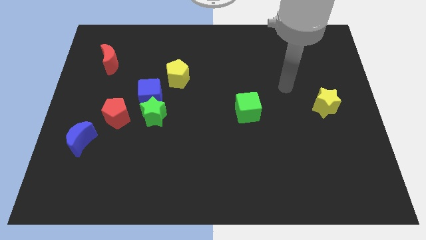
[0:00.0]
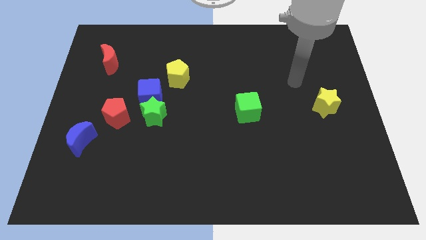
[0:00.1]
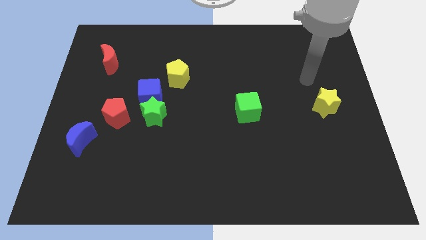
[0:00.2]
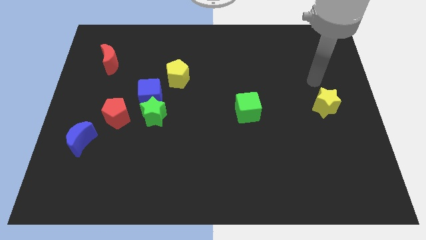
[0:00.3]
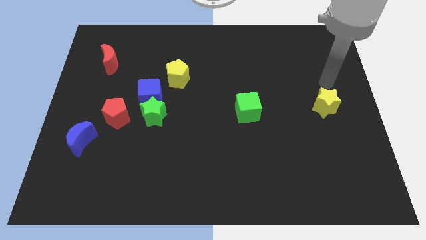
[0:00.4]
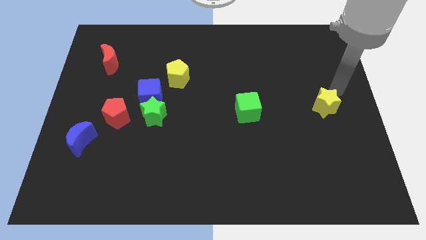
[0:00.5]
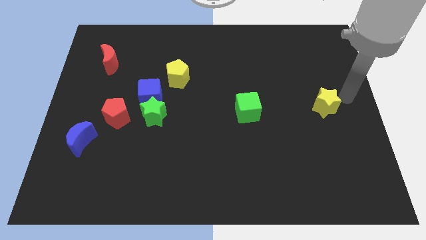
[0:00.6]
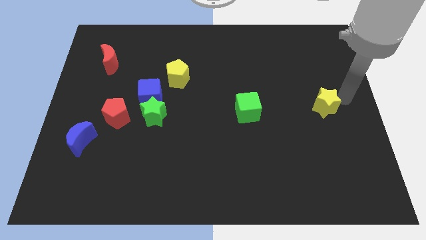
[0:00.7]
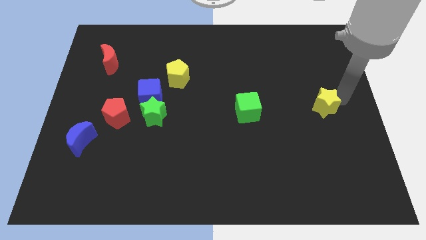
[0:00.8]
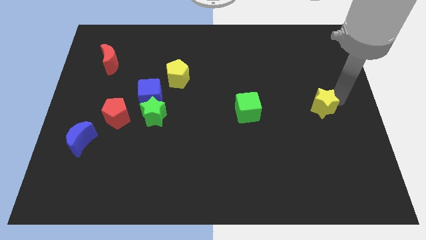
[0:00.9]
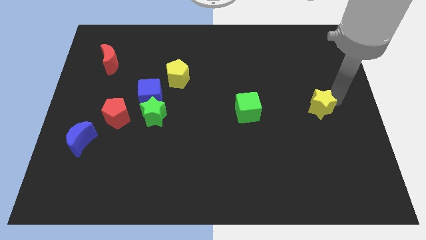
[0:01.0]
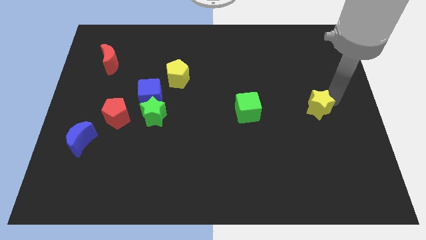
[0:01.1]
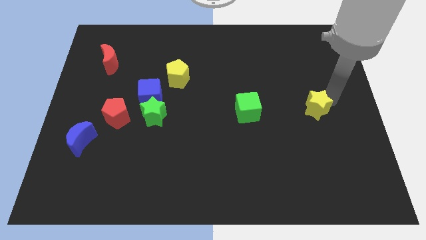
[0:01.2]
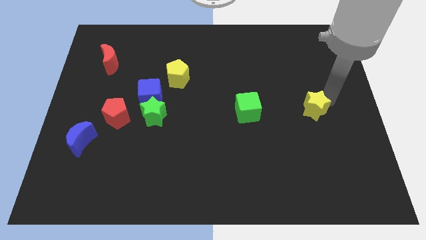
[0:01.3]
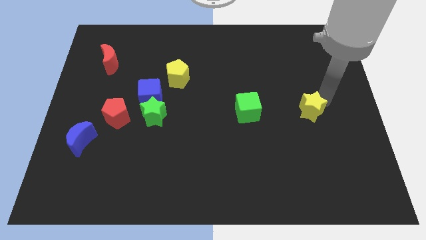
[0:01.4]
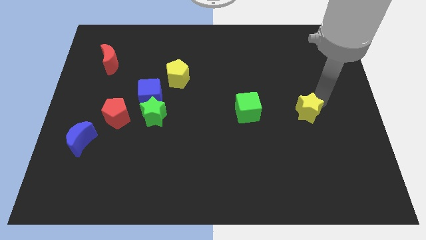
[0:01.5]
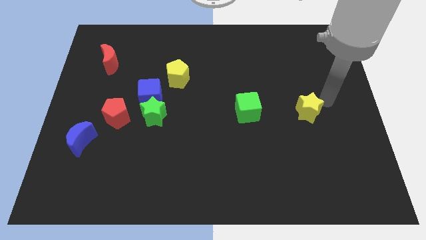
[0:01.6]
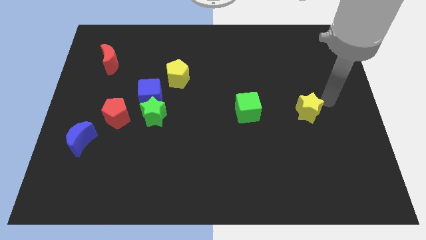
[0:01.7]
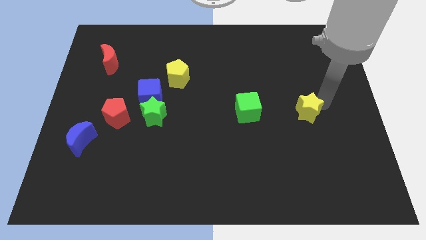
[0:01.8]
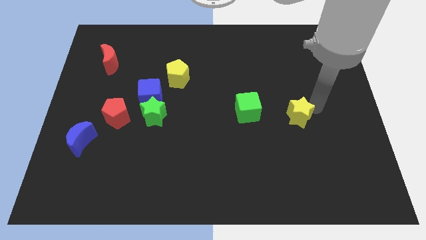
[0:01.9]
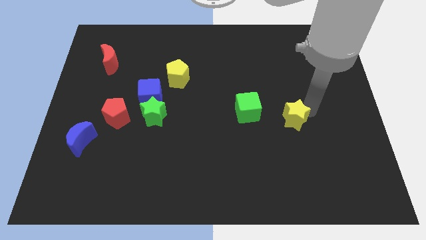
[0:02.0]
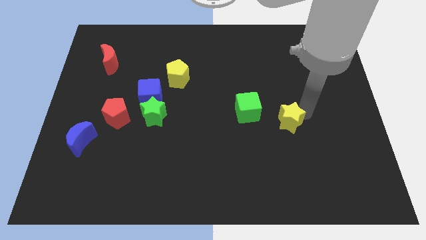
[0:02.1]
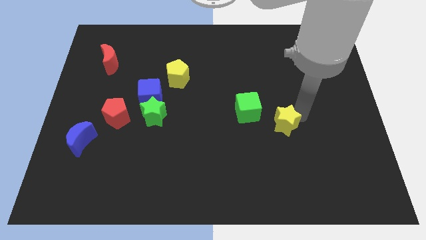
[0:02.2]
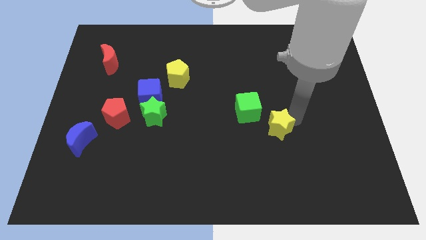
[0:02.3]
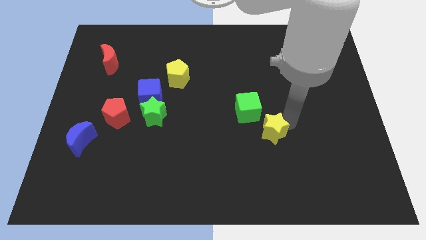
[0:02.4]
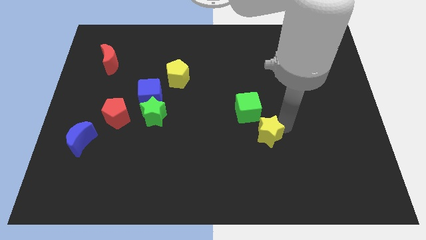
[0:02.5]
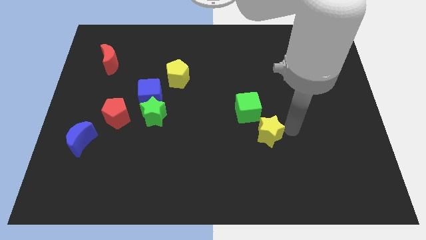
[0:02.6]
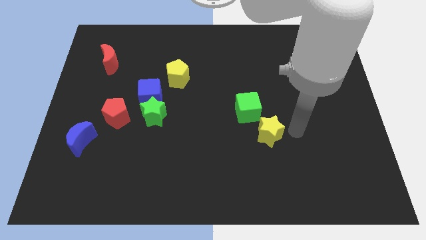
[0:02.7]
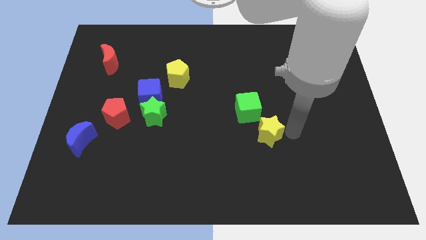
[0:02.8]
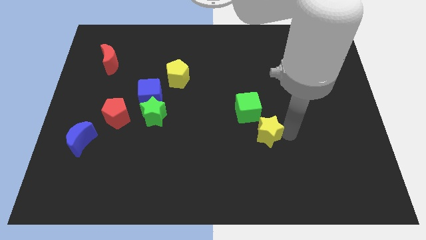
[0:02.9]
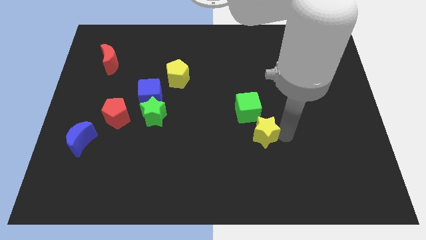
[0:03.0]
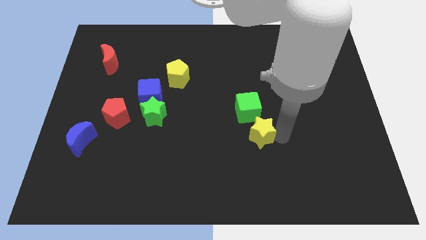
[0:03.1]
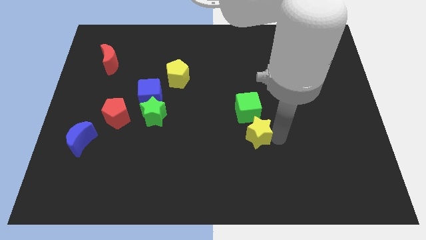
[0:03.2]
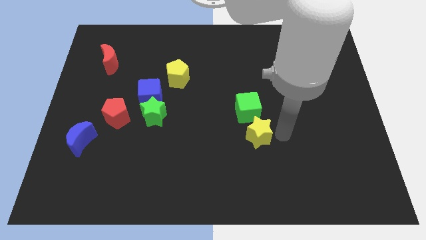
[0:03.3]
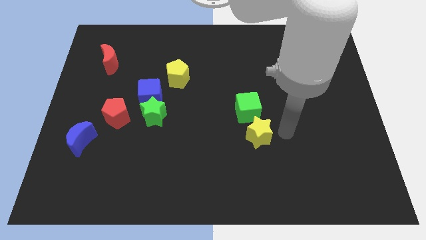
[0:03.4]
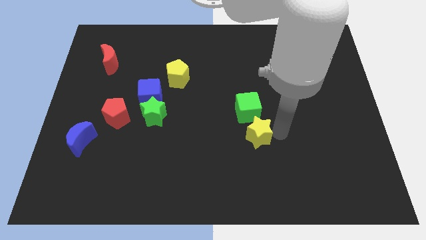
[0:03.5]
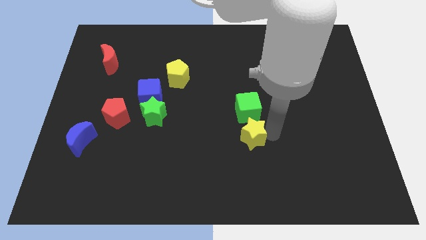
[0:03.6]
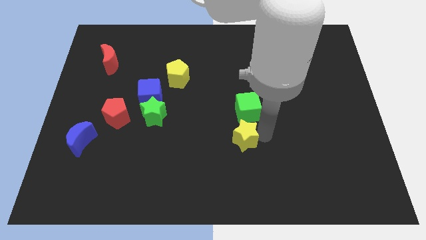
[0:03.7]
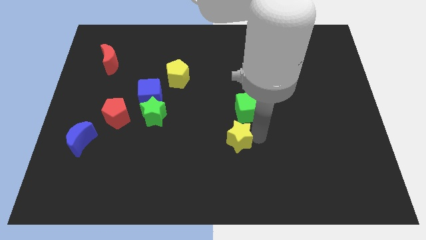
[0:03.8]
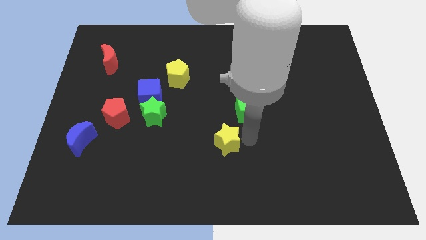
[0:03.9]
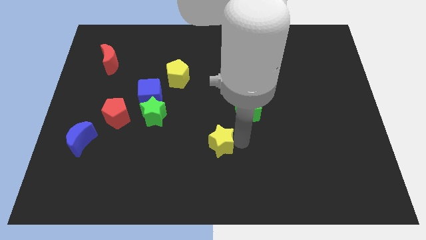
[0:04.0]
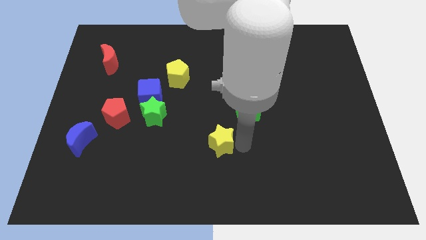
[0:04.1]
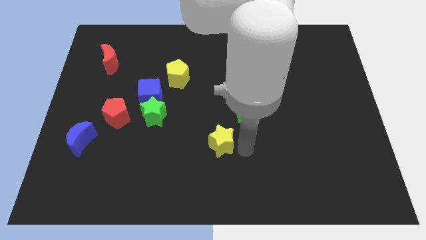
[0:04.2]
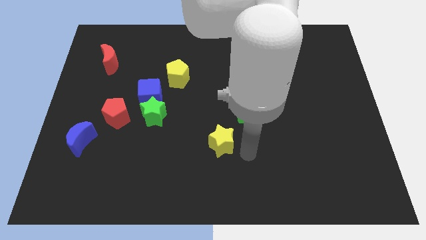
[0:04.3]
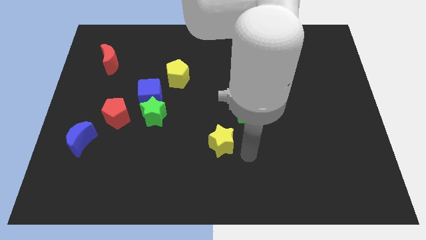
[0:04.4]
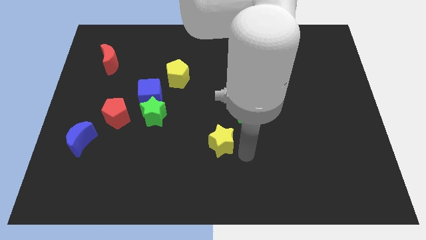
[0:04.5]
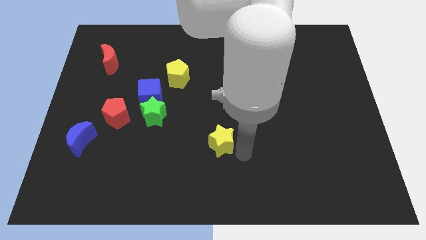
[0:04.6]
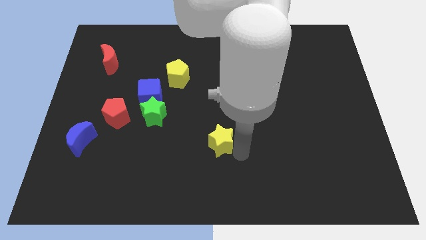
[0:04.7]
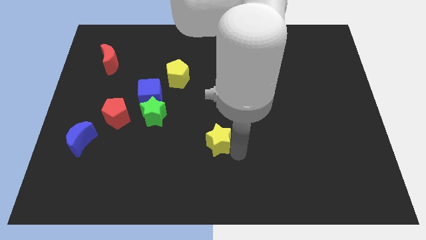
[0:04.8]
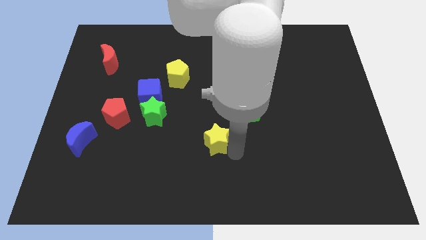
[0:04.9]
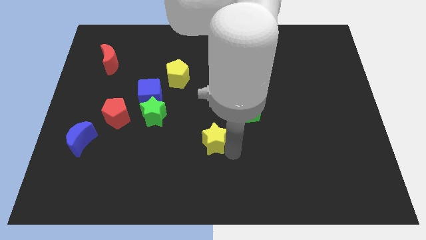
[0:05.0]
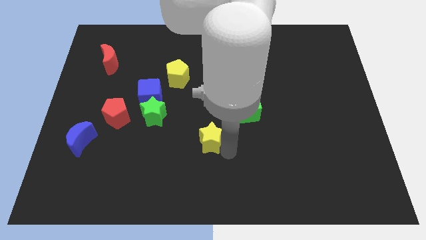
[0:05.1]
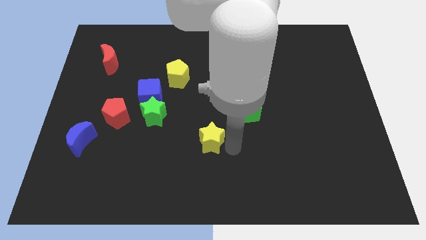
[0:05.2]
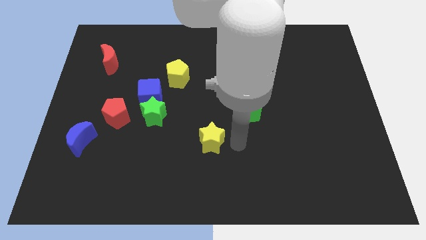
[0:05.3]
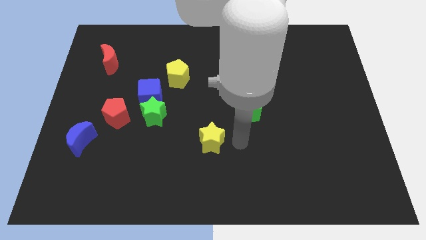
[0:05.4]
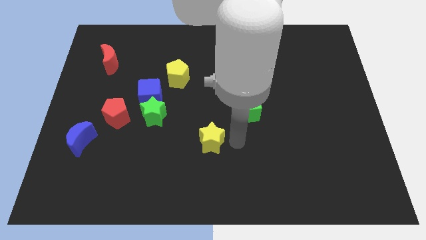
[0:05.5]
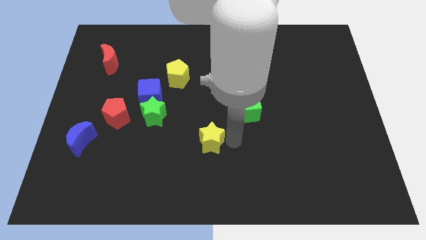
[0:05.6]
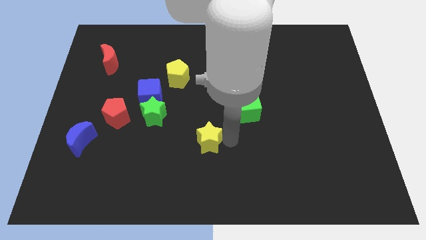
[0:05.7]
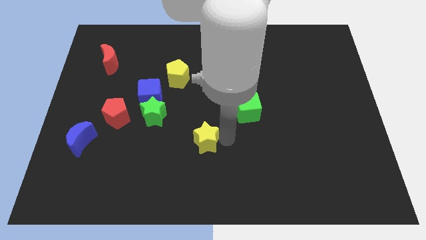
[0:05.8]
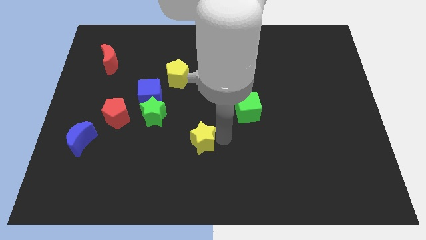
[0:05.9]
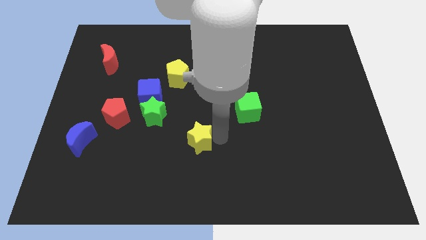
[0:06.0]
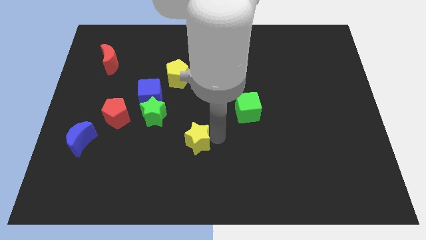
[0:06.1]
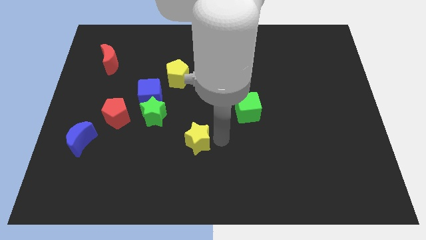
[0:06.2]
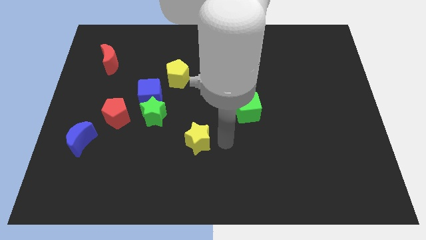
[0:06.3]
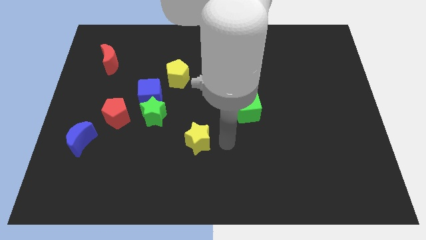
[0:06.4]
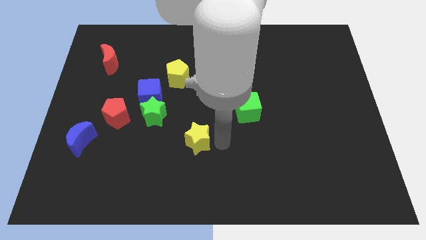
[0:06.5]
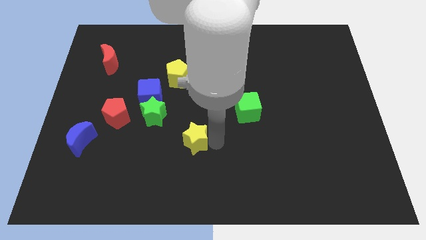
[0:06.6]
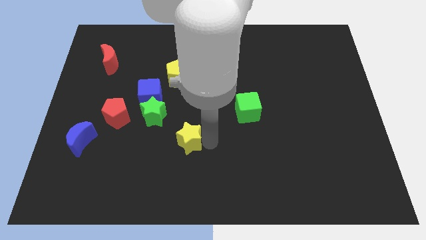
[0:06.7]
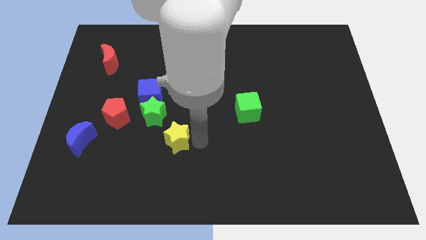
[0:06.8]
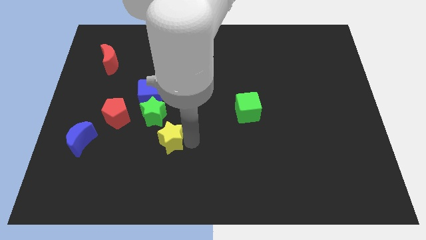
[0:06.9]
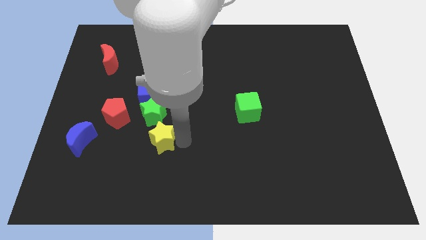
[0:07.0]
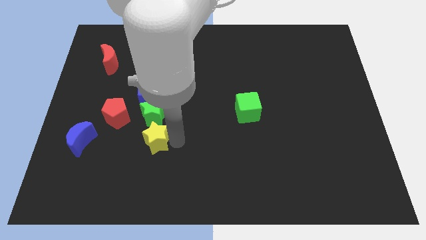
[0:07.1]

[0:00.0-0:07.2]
move the yellow star to the right of the blue moon

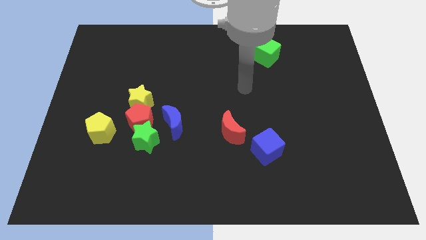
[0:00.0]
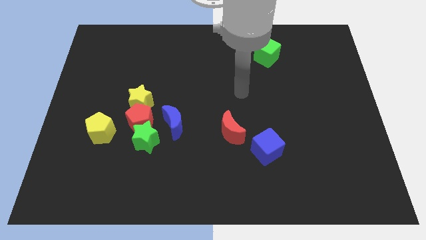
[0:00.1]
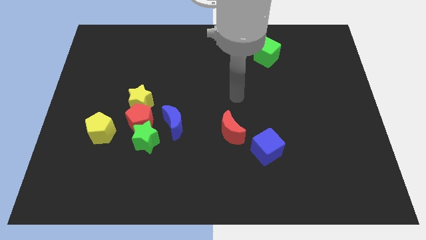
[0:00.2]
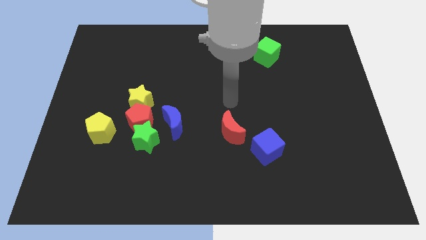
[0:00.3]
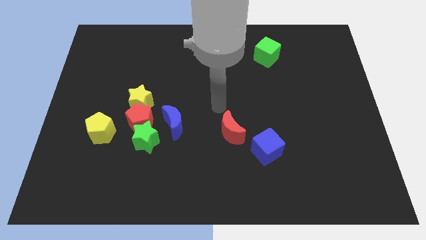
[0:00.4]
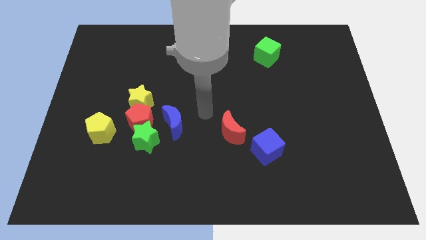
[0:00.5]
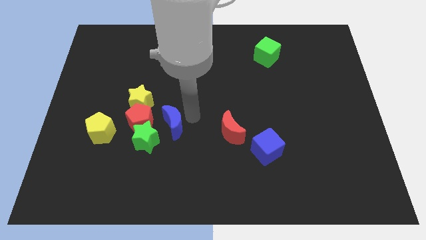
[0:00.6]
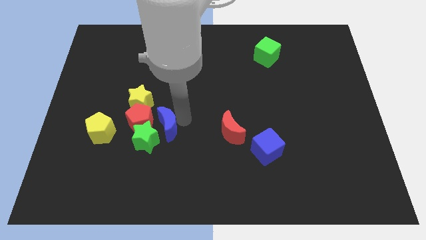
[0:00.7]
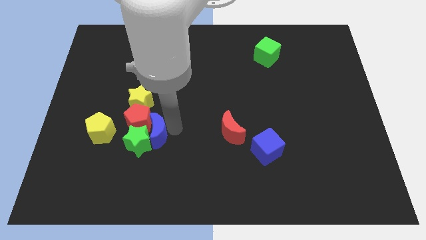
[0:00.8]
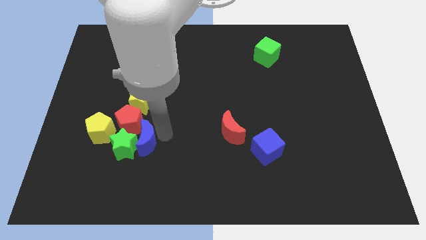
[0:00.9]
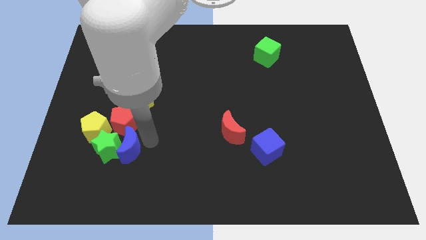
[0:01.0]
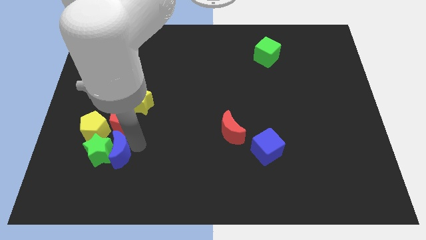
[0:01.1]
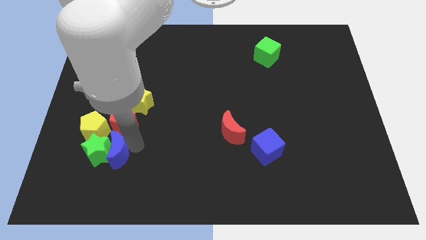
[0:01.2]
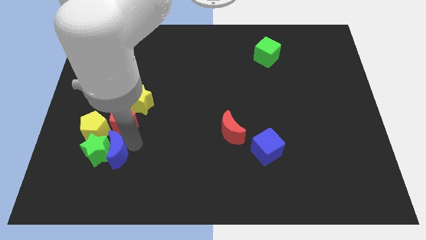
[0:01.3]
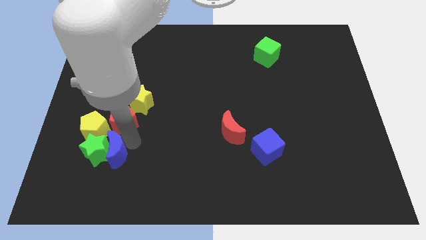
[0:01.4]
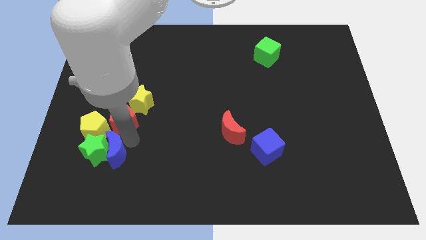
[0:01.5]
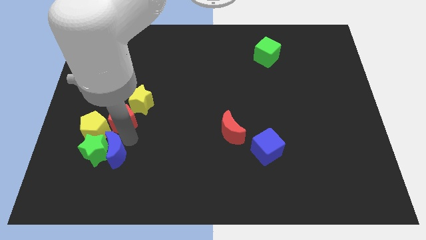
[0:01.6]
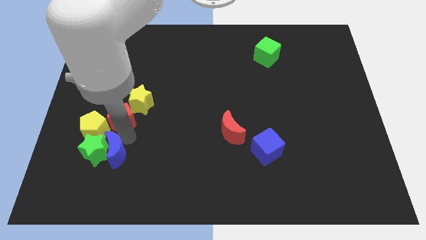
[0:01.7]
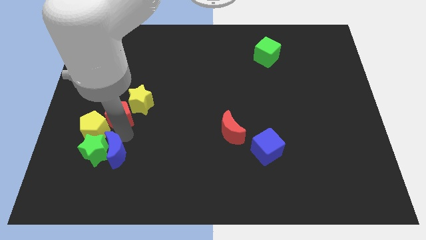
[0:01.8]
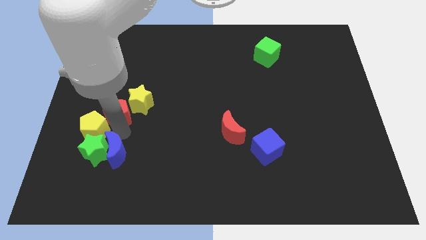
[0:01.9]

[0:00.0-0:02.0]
put the red pentagon to the top of the yellow pentagon
